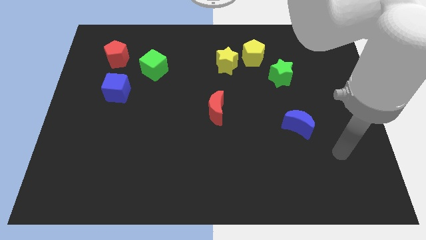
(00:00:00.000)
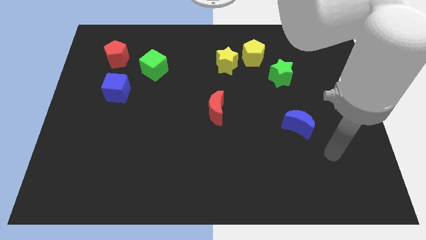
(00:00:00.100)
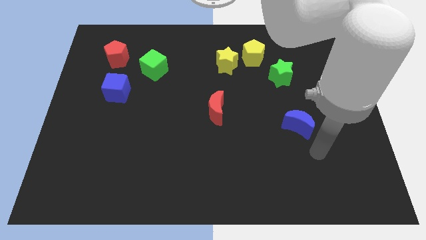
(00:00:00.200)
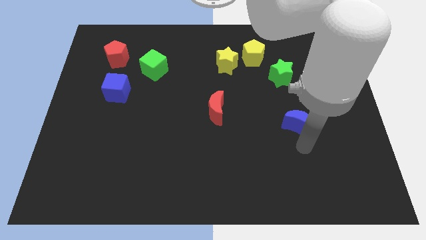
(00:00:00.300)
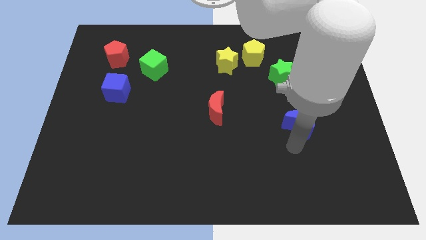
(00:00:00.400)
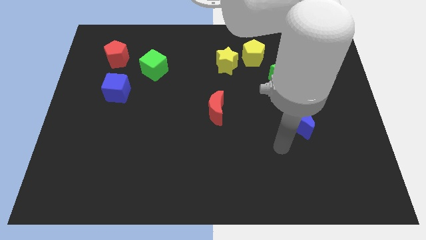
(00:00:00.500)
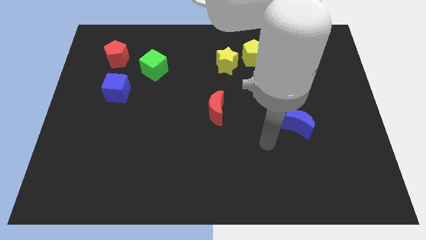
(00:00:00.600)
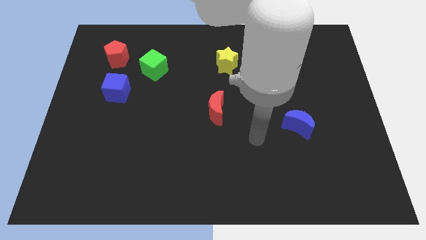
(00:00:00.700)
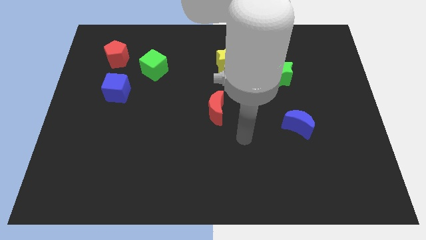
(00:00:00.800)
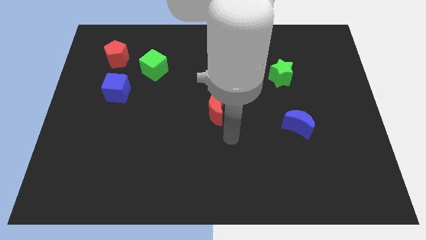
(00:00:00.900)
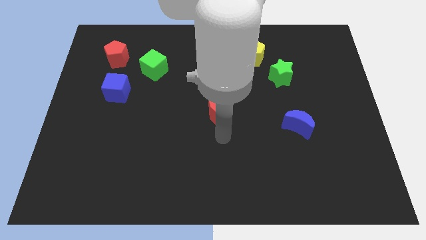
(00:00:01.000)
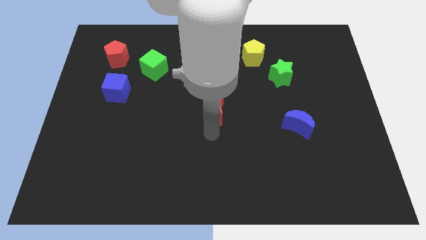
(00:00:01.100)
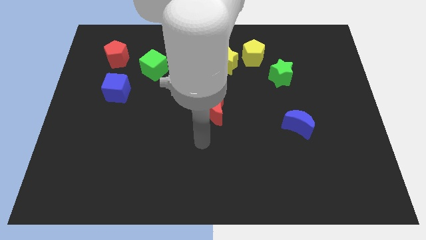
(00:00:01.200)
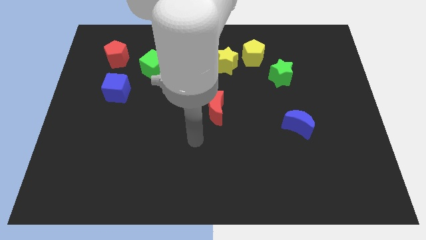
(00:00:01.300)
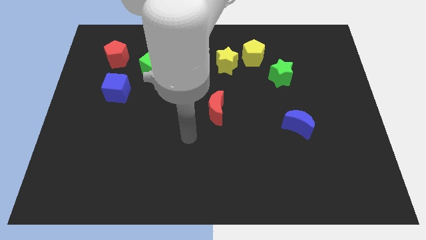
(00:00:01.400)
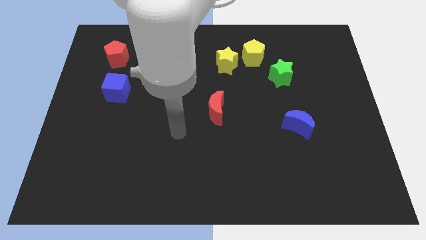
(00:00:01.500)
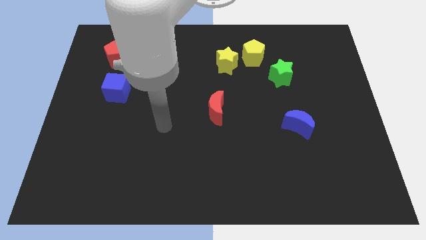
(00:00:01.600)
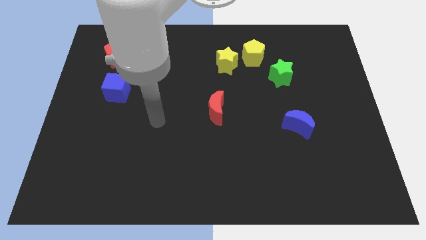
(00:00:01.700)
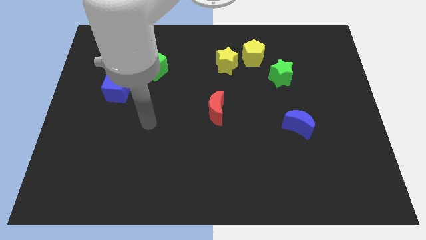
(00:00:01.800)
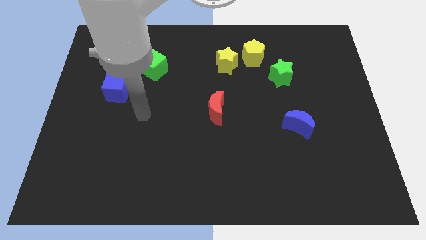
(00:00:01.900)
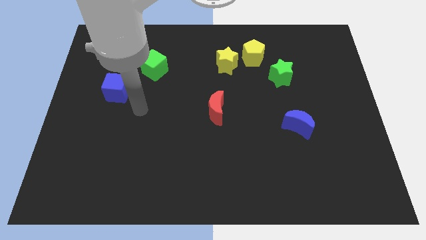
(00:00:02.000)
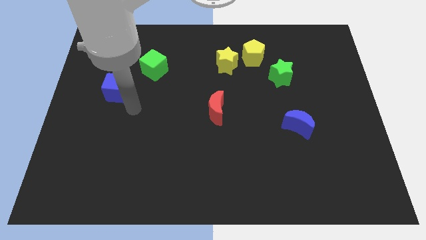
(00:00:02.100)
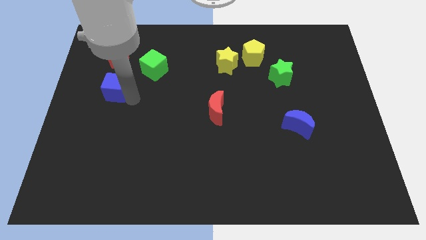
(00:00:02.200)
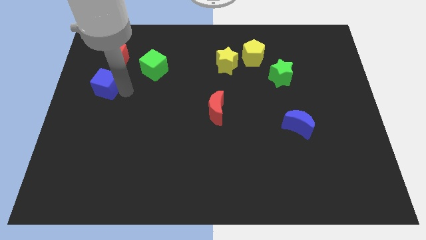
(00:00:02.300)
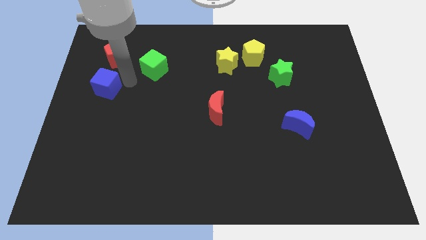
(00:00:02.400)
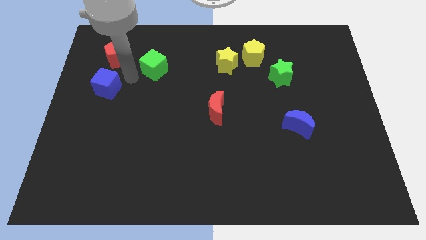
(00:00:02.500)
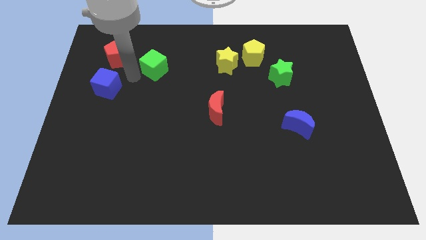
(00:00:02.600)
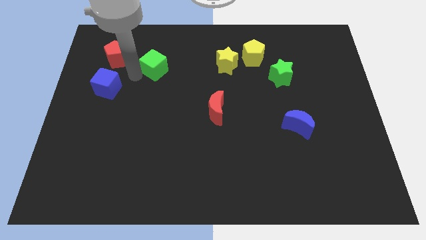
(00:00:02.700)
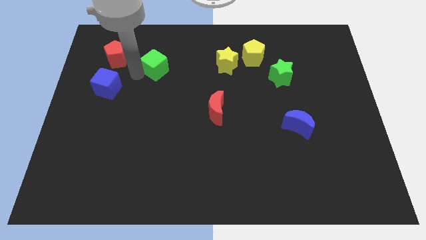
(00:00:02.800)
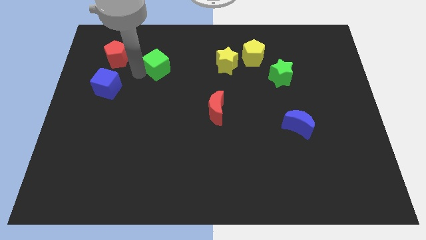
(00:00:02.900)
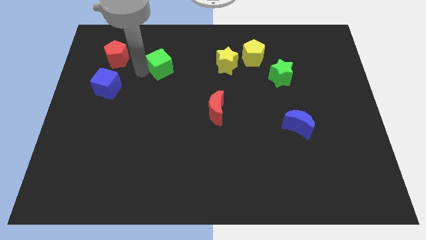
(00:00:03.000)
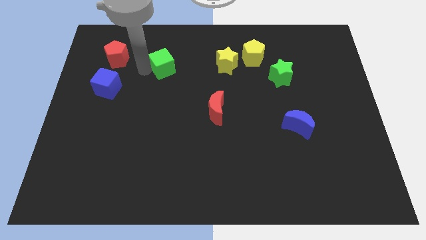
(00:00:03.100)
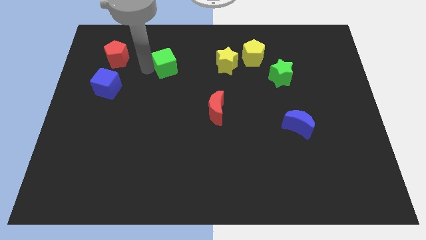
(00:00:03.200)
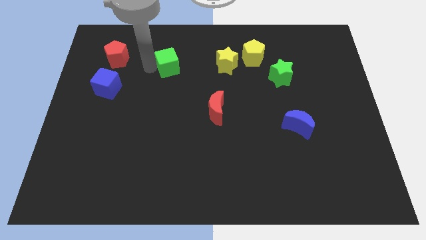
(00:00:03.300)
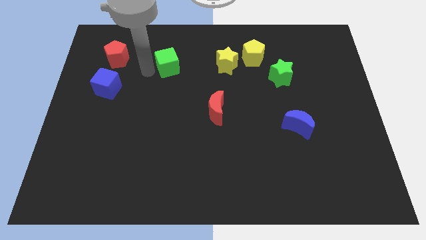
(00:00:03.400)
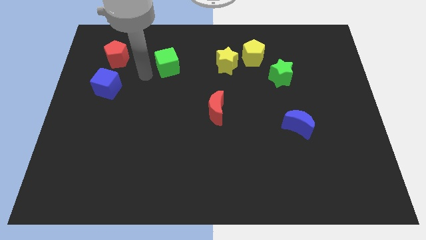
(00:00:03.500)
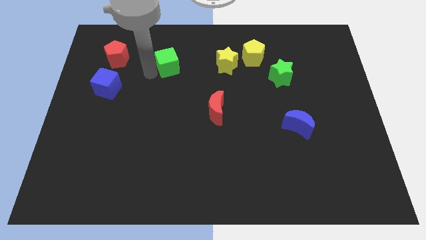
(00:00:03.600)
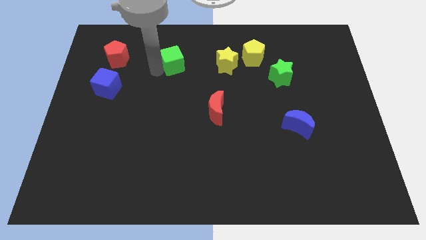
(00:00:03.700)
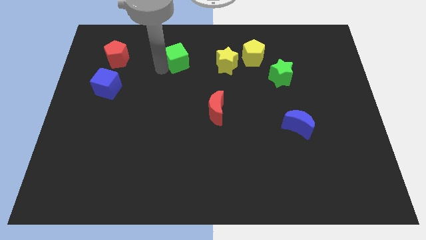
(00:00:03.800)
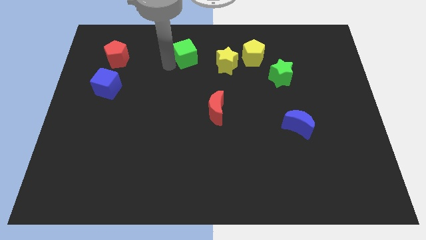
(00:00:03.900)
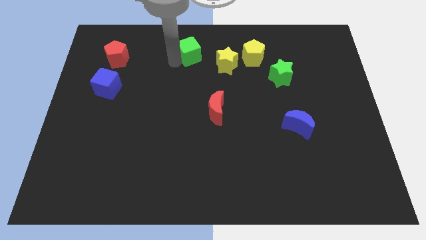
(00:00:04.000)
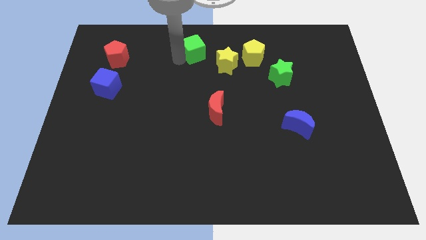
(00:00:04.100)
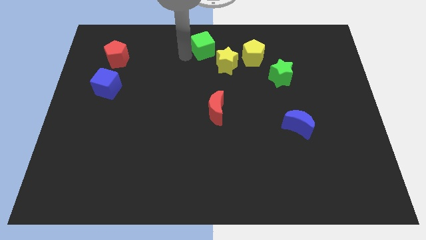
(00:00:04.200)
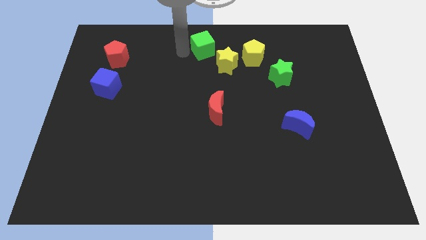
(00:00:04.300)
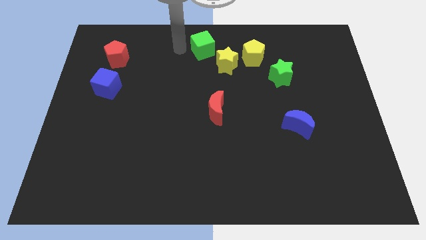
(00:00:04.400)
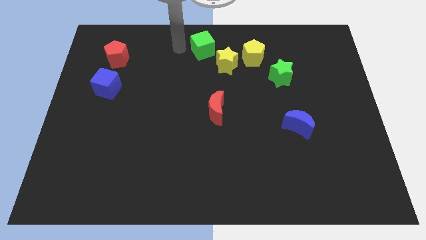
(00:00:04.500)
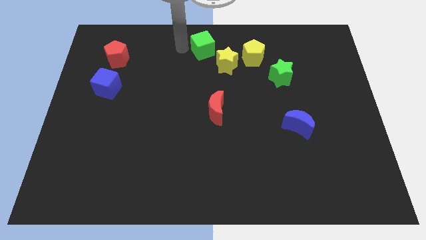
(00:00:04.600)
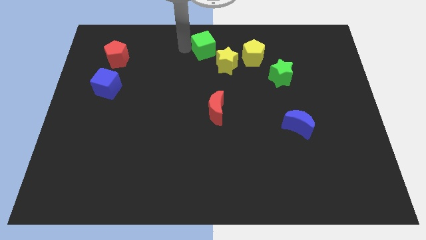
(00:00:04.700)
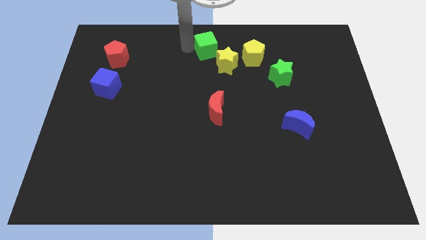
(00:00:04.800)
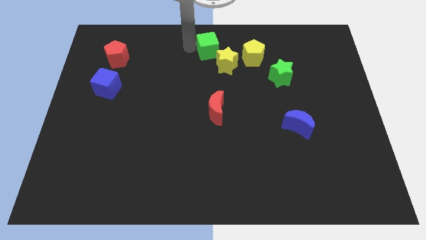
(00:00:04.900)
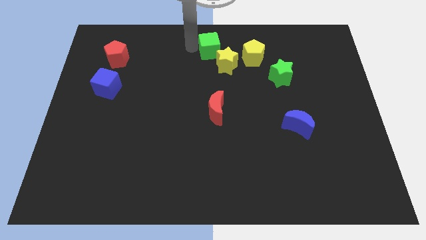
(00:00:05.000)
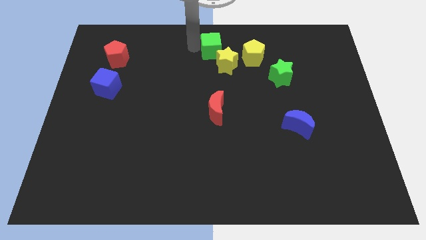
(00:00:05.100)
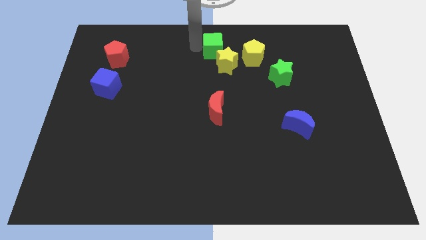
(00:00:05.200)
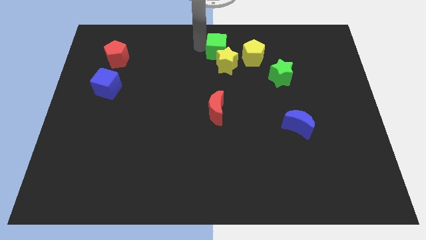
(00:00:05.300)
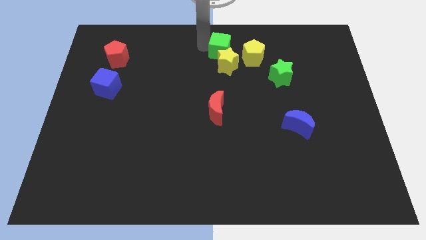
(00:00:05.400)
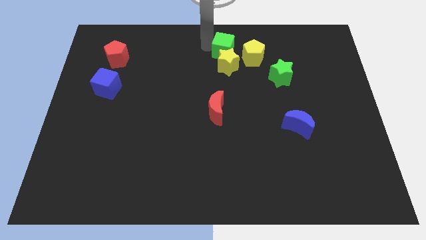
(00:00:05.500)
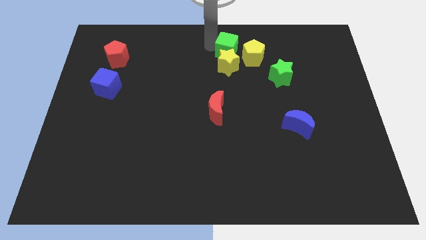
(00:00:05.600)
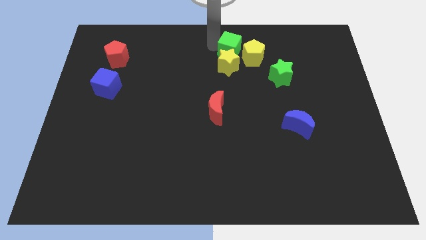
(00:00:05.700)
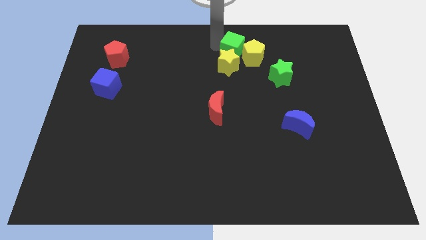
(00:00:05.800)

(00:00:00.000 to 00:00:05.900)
slide the green cube to the yellow pentagon

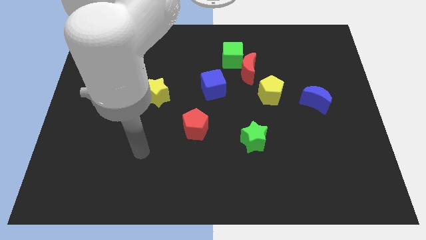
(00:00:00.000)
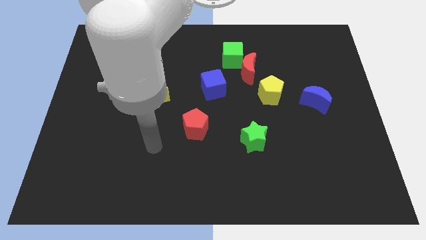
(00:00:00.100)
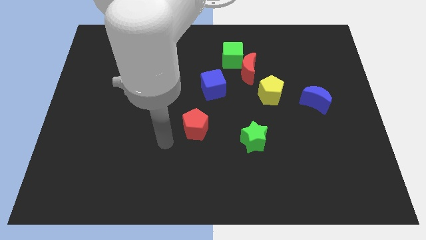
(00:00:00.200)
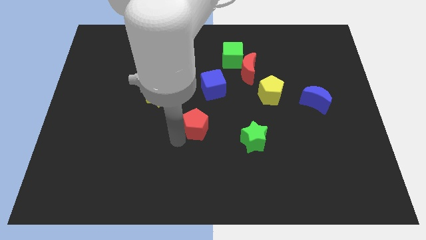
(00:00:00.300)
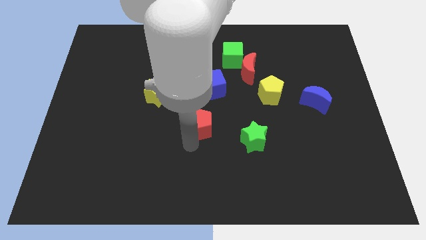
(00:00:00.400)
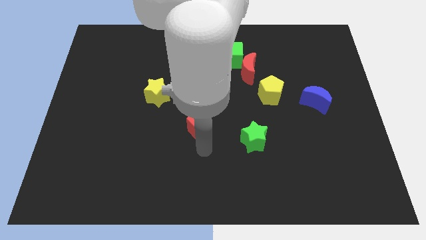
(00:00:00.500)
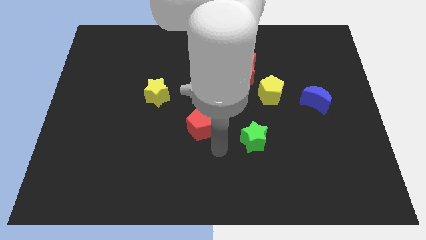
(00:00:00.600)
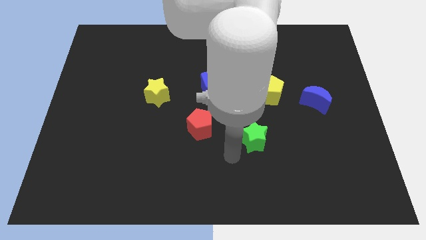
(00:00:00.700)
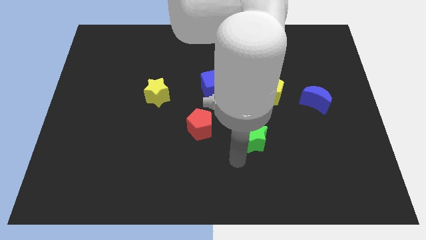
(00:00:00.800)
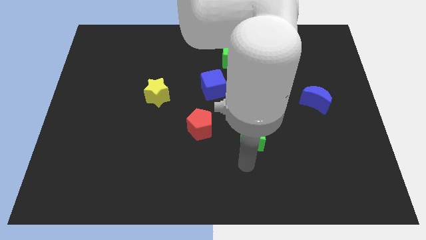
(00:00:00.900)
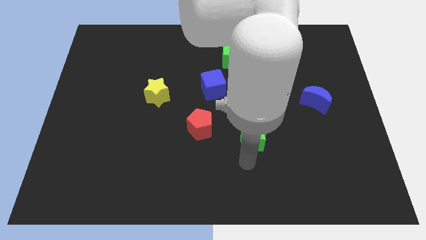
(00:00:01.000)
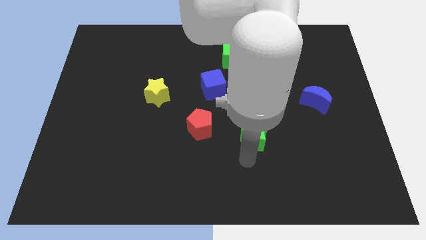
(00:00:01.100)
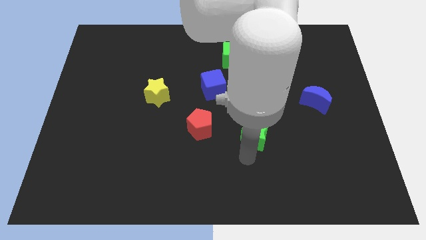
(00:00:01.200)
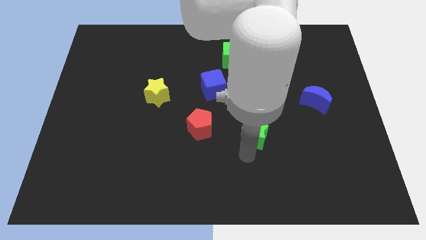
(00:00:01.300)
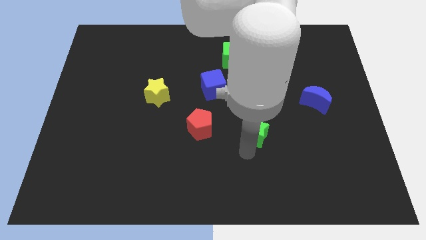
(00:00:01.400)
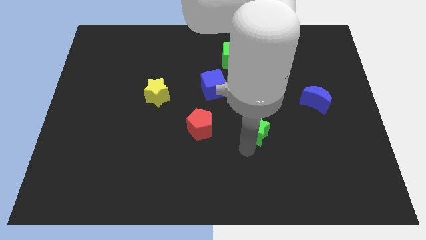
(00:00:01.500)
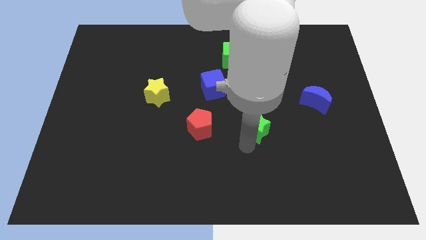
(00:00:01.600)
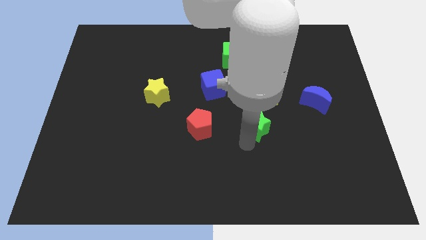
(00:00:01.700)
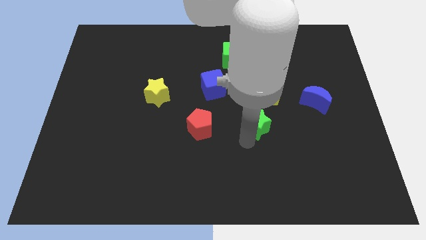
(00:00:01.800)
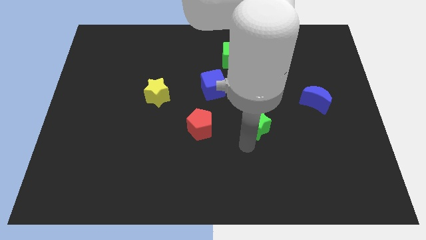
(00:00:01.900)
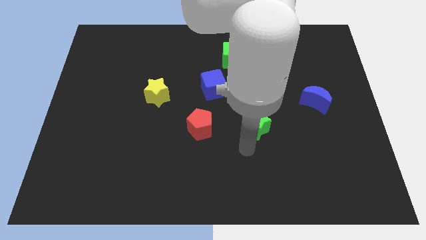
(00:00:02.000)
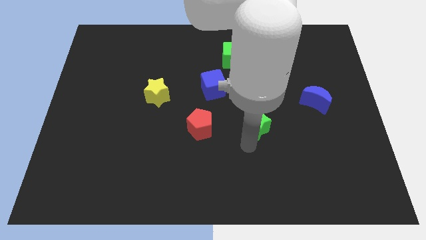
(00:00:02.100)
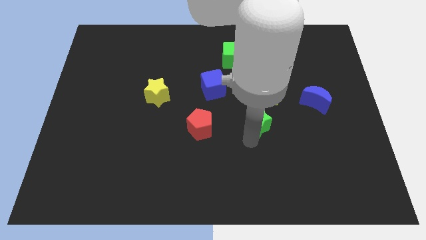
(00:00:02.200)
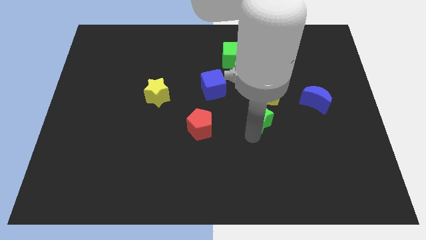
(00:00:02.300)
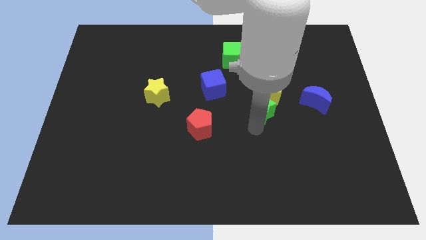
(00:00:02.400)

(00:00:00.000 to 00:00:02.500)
move the green star to the yellow pentagon
